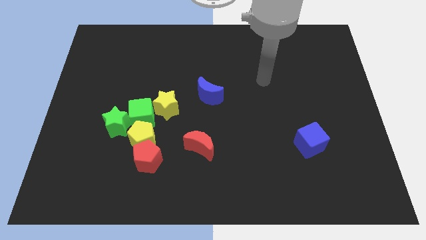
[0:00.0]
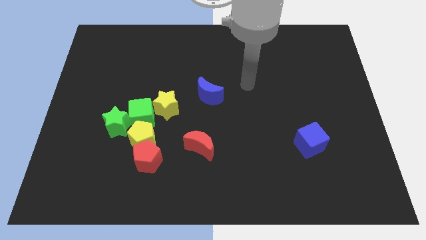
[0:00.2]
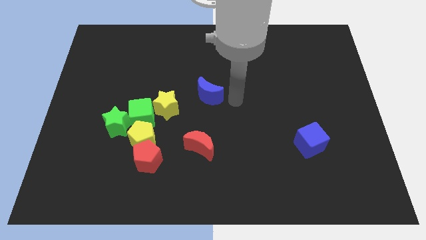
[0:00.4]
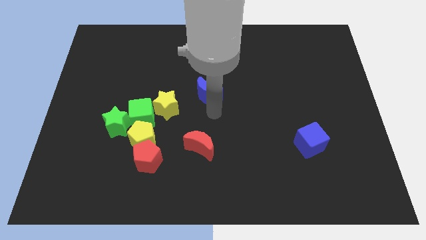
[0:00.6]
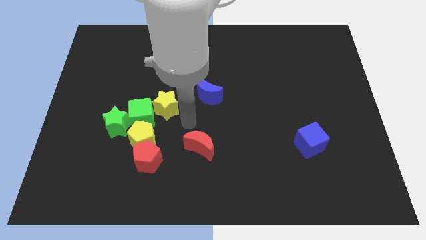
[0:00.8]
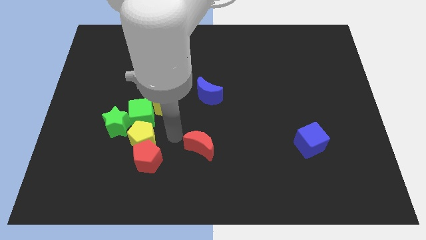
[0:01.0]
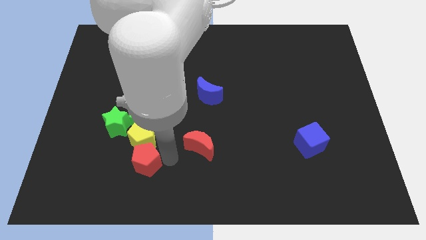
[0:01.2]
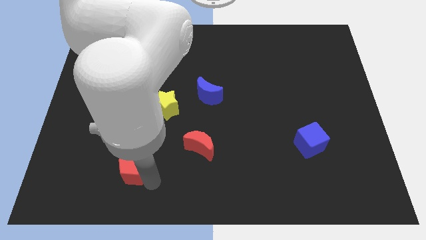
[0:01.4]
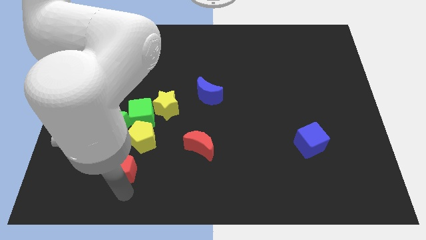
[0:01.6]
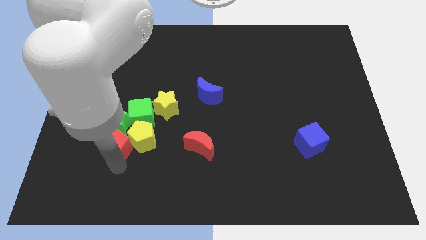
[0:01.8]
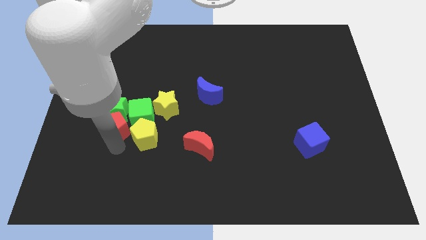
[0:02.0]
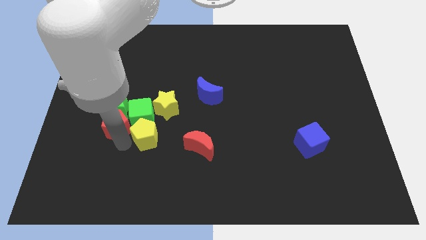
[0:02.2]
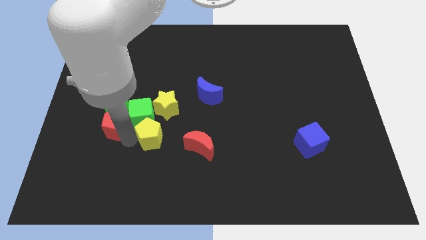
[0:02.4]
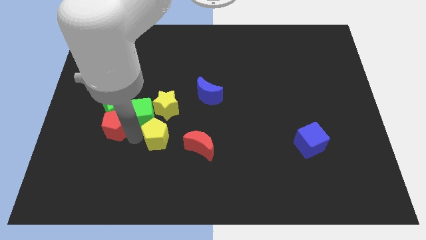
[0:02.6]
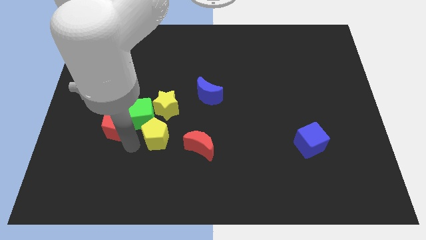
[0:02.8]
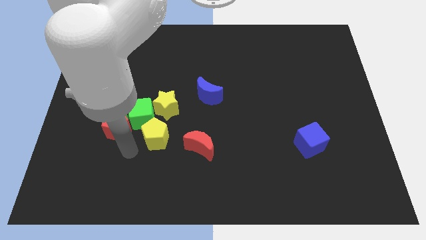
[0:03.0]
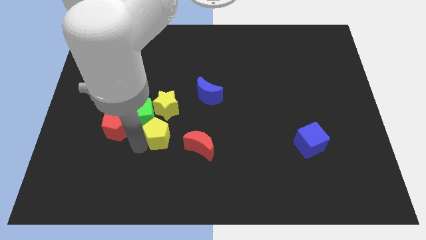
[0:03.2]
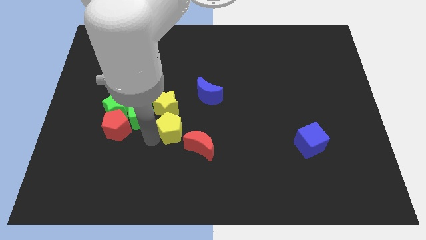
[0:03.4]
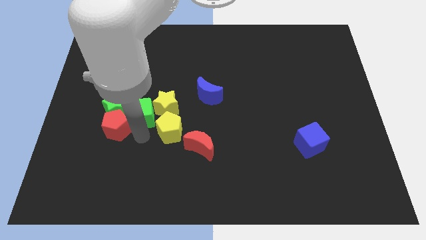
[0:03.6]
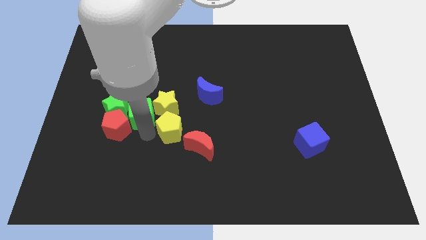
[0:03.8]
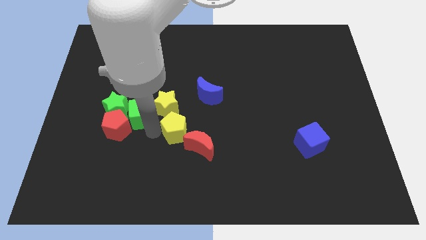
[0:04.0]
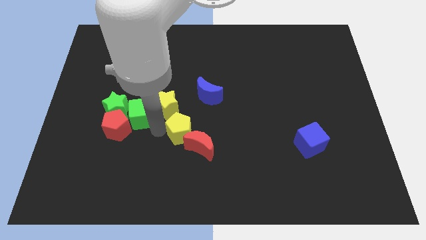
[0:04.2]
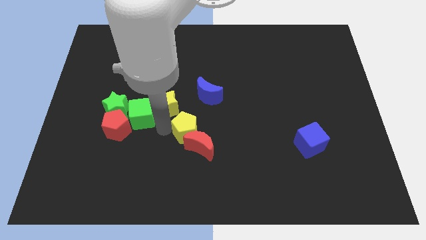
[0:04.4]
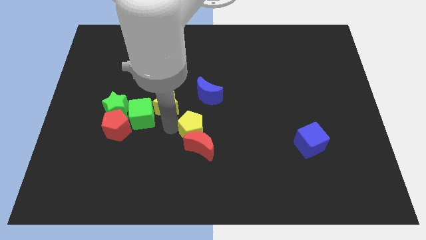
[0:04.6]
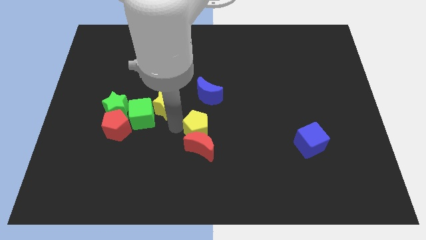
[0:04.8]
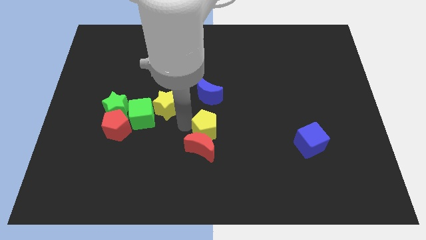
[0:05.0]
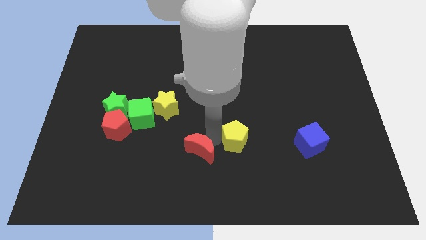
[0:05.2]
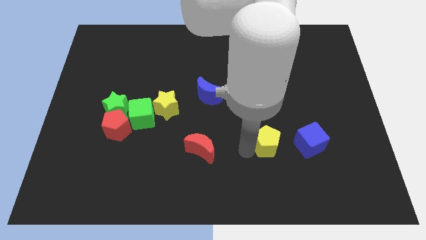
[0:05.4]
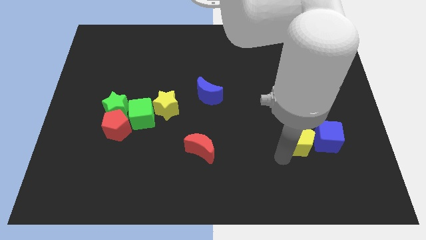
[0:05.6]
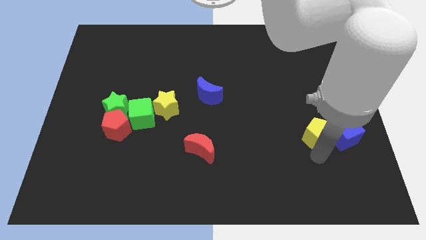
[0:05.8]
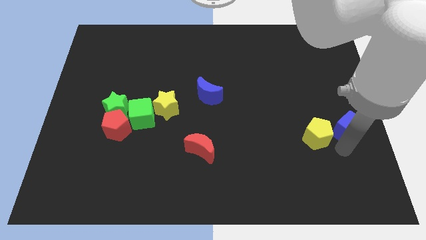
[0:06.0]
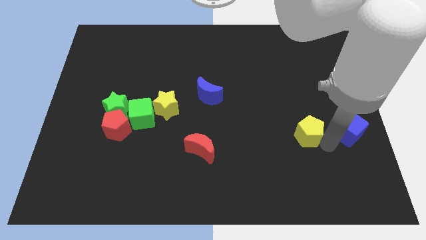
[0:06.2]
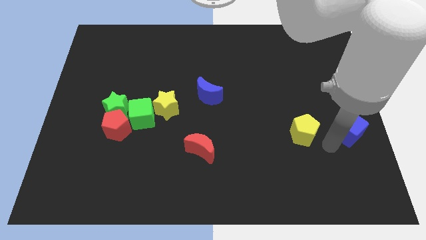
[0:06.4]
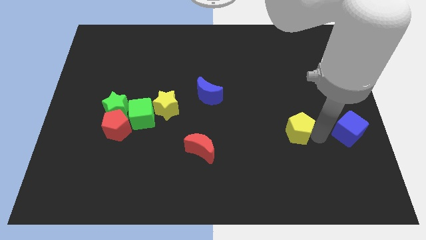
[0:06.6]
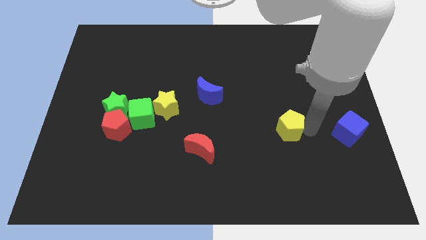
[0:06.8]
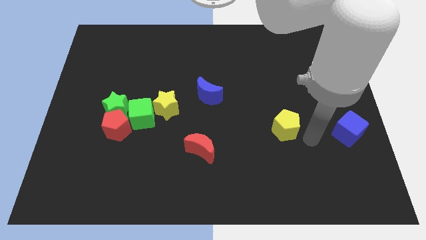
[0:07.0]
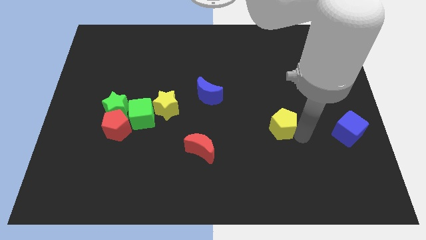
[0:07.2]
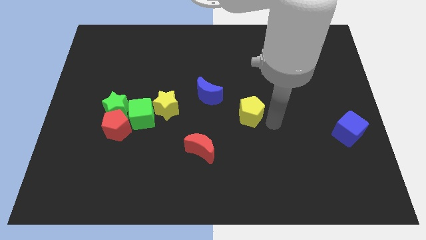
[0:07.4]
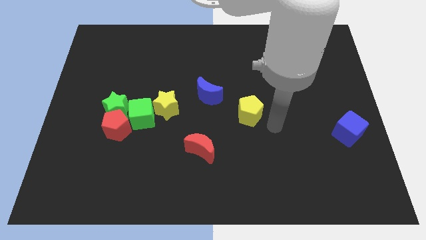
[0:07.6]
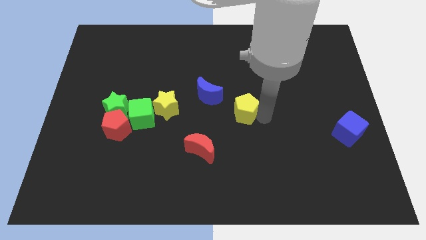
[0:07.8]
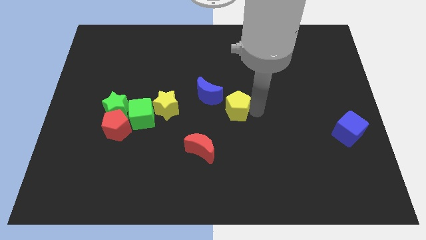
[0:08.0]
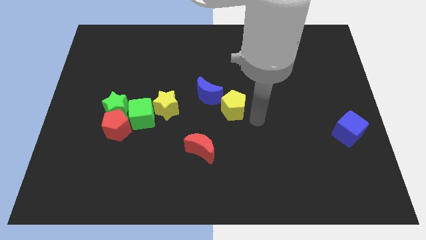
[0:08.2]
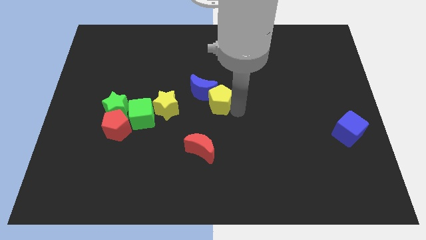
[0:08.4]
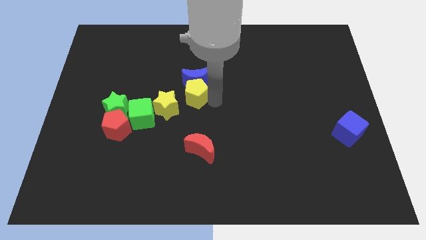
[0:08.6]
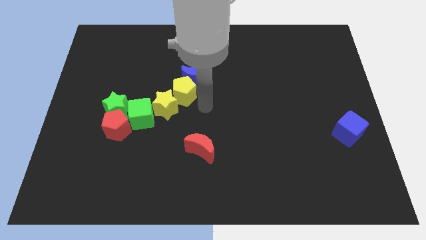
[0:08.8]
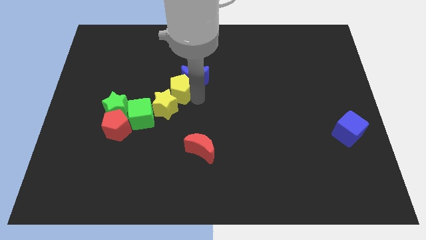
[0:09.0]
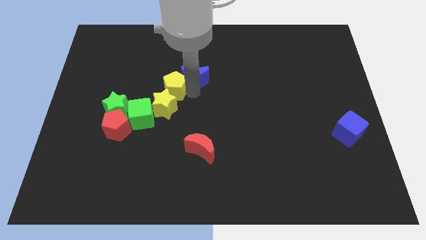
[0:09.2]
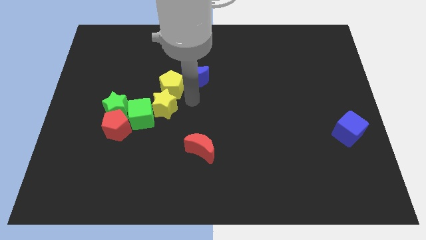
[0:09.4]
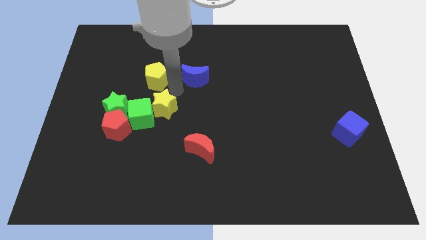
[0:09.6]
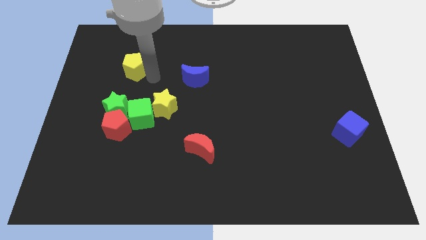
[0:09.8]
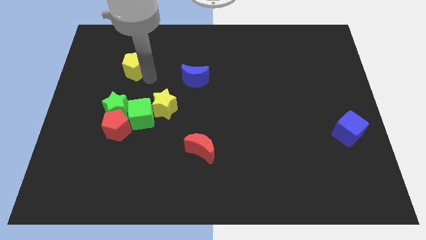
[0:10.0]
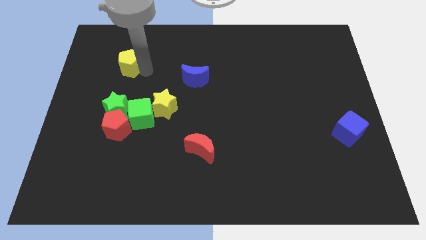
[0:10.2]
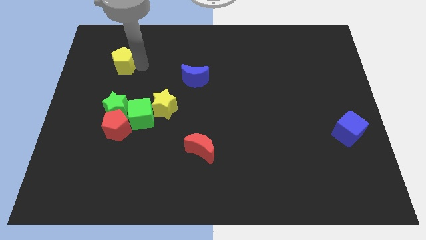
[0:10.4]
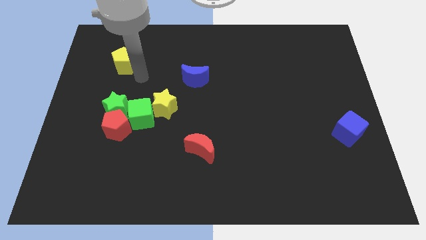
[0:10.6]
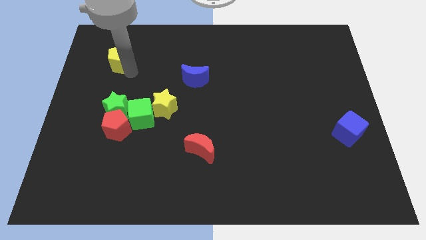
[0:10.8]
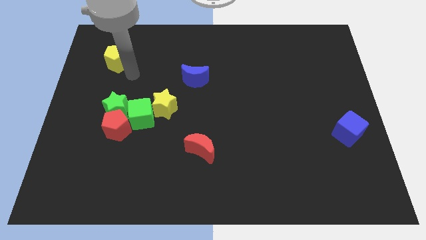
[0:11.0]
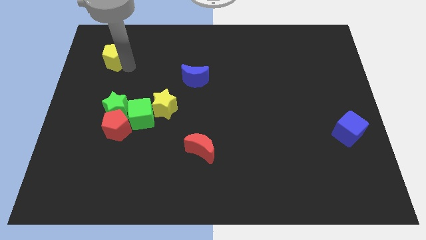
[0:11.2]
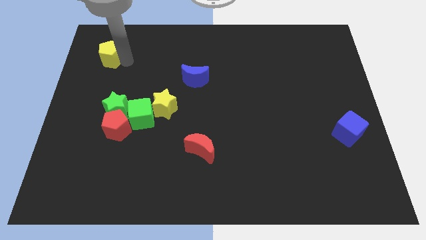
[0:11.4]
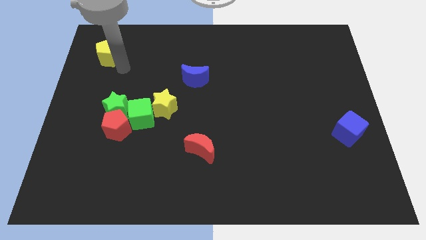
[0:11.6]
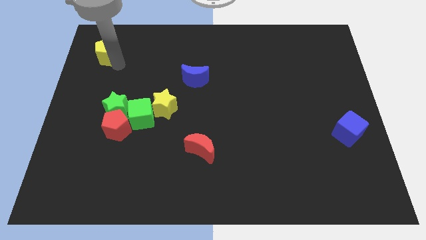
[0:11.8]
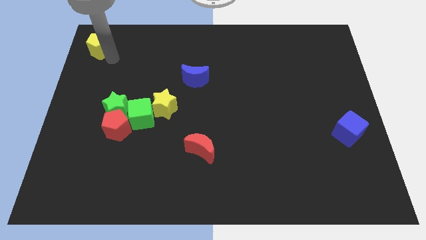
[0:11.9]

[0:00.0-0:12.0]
move the yellow pentagon to the top left of the board
